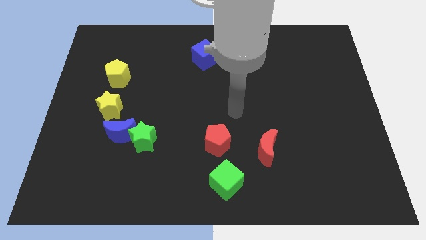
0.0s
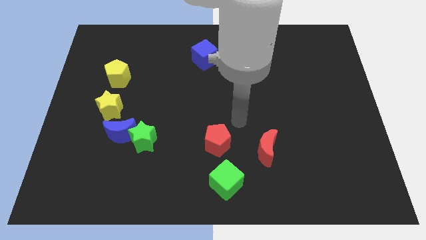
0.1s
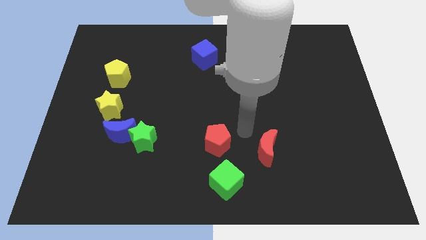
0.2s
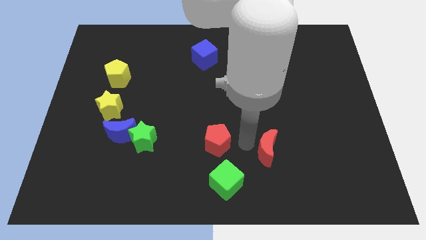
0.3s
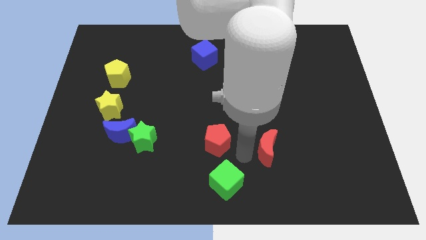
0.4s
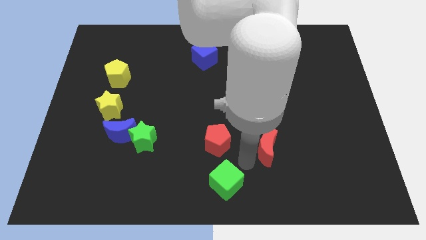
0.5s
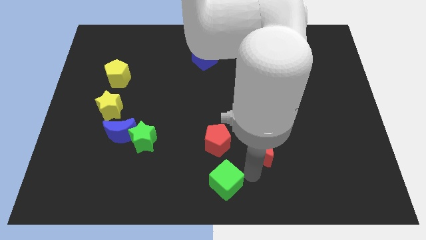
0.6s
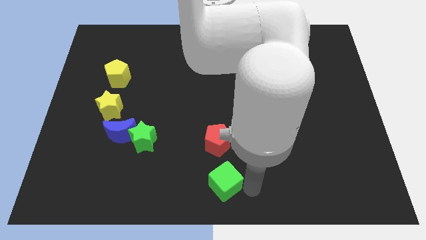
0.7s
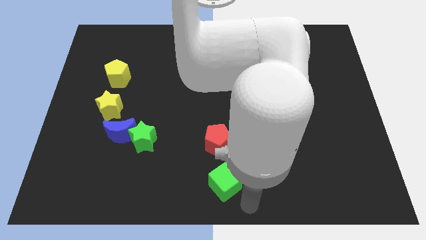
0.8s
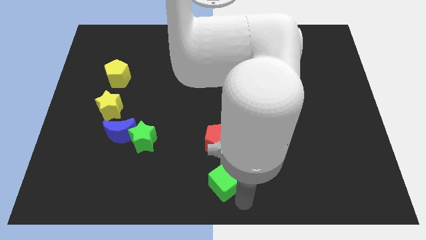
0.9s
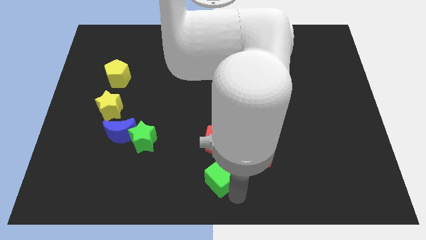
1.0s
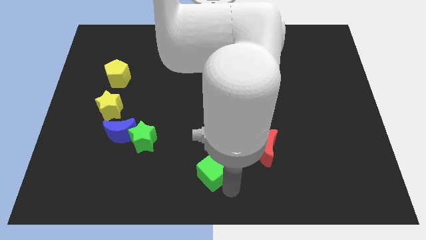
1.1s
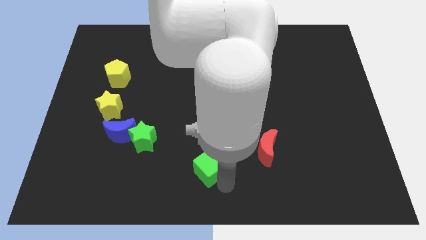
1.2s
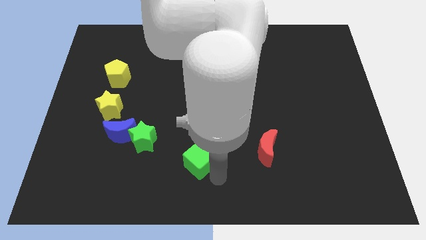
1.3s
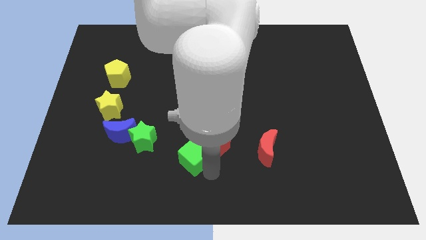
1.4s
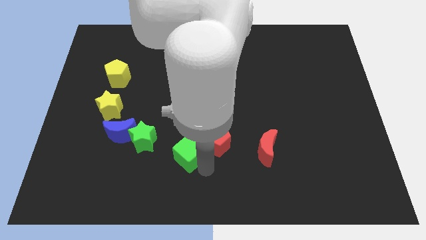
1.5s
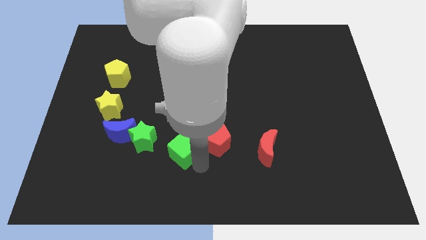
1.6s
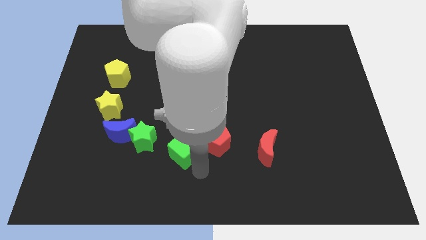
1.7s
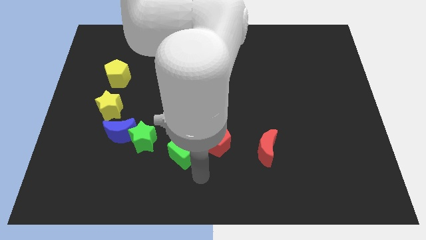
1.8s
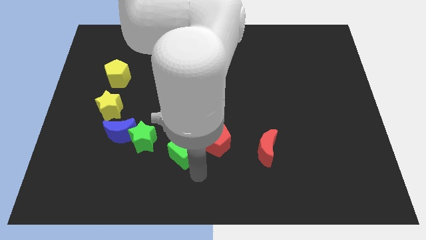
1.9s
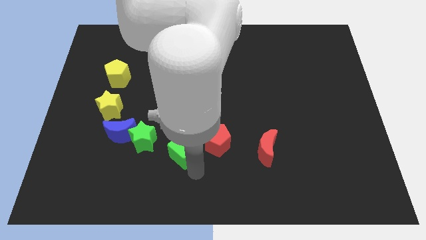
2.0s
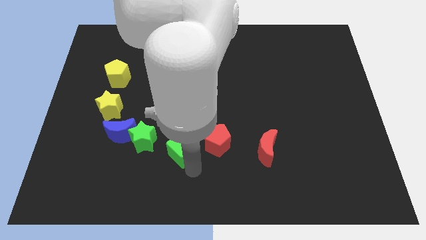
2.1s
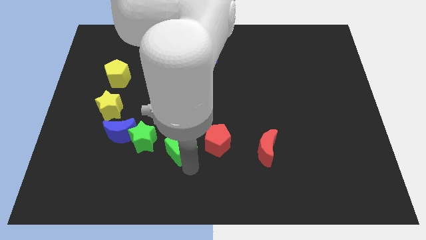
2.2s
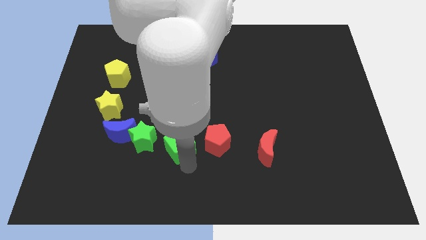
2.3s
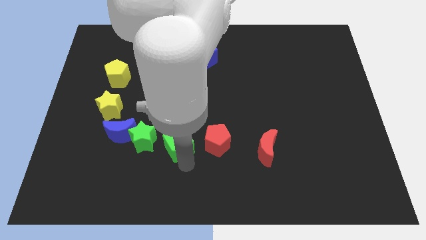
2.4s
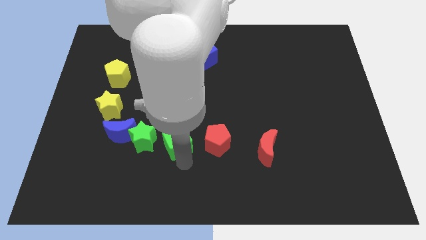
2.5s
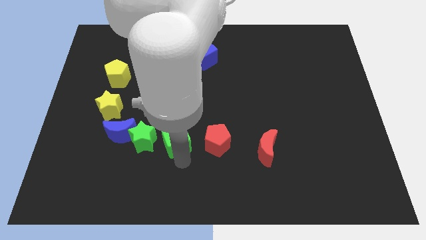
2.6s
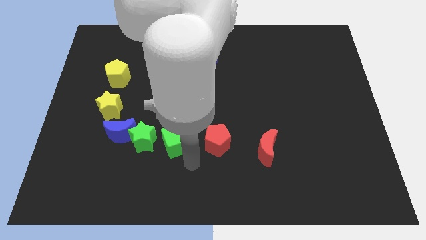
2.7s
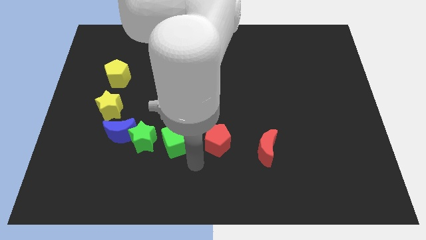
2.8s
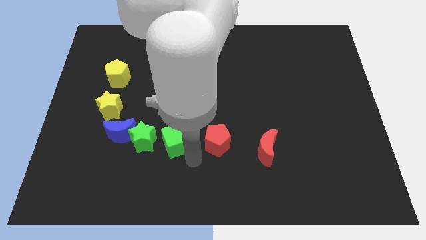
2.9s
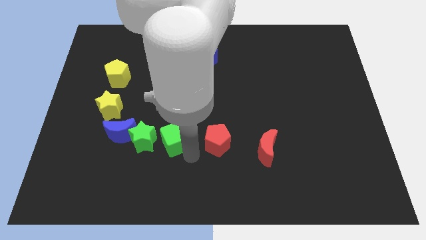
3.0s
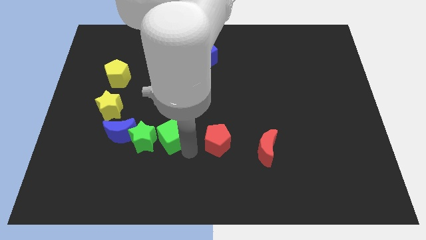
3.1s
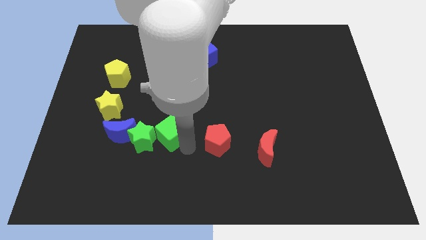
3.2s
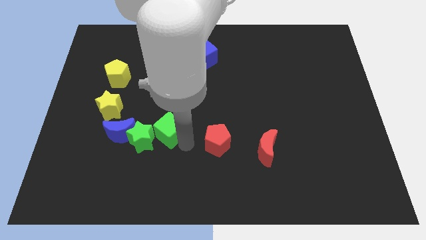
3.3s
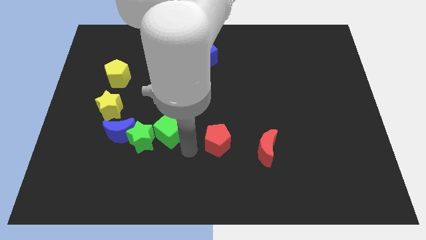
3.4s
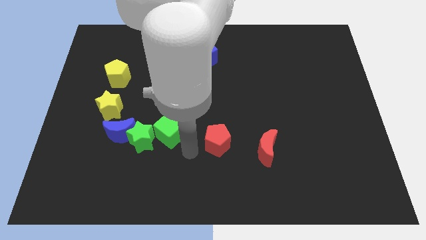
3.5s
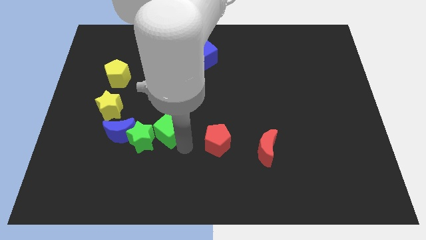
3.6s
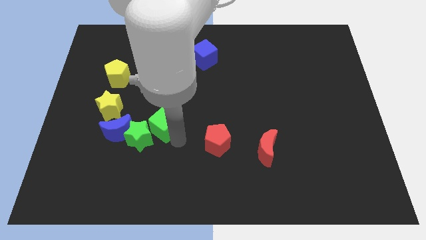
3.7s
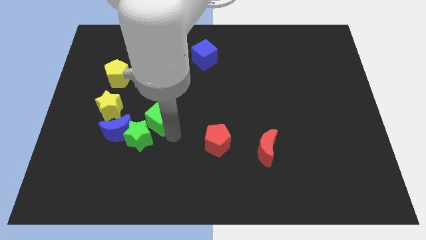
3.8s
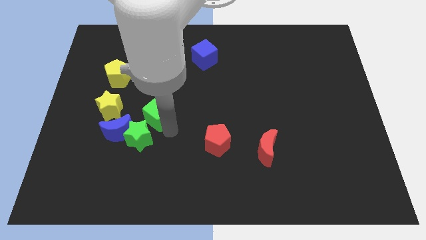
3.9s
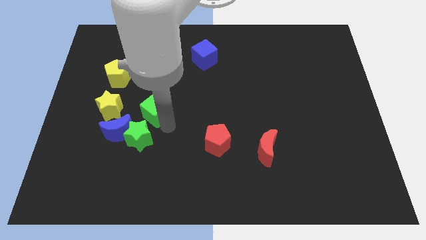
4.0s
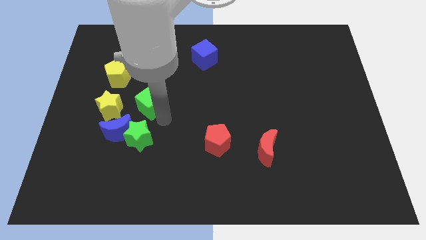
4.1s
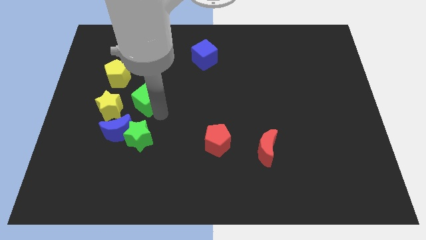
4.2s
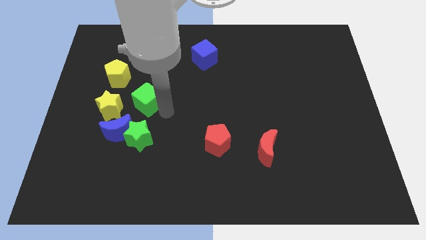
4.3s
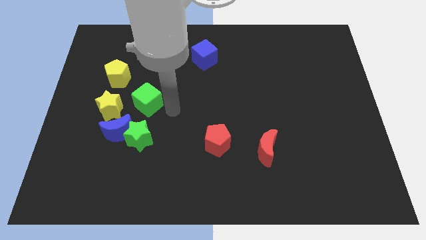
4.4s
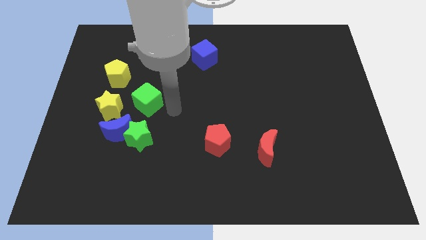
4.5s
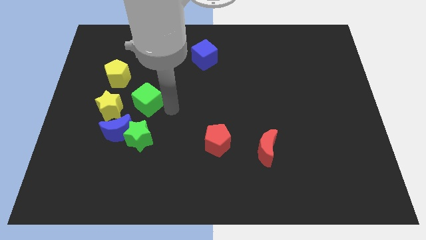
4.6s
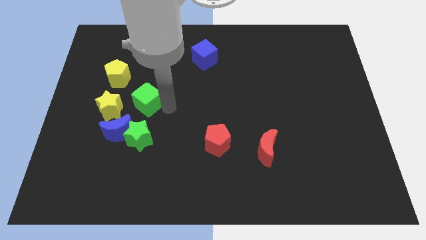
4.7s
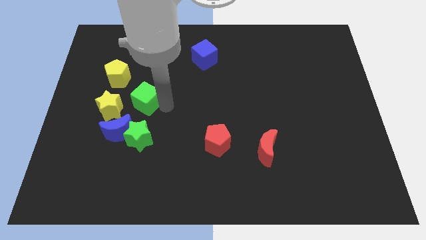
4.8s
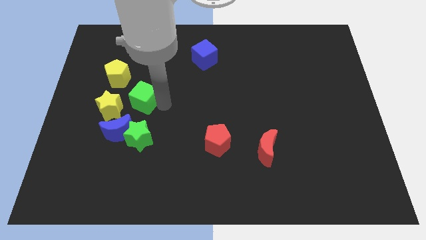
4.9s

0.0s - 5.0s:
push the green cube to the top of the blue moon

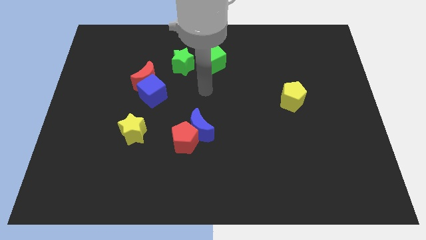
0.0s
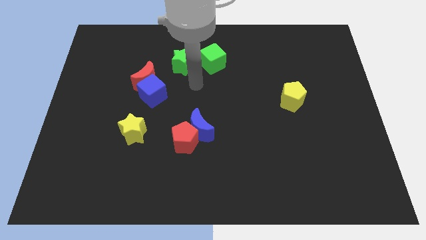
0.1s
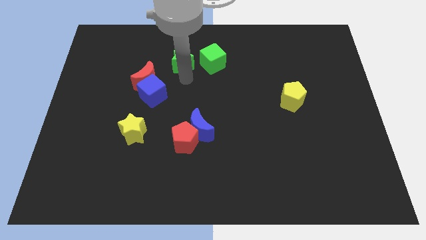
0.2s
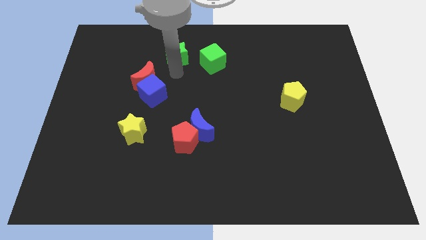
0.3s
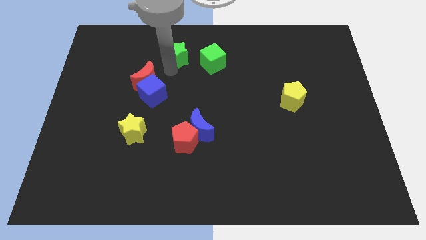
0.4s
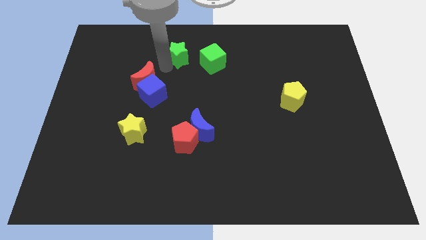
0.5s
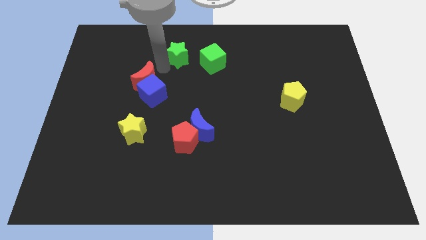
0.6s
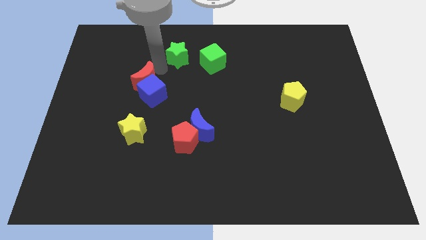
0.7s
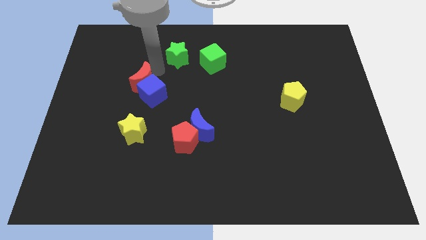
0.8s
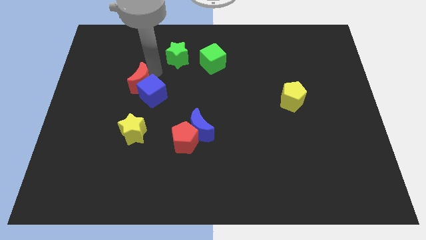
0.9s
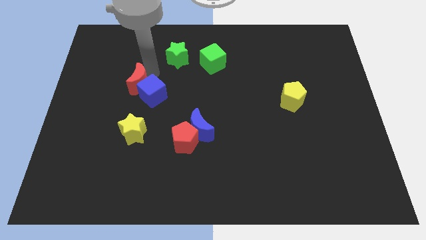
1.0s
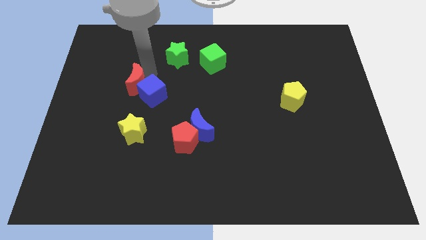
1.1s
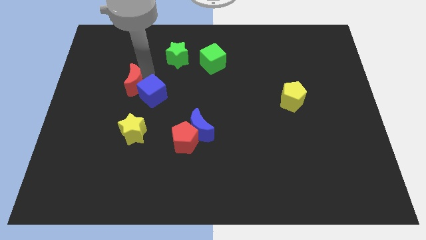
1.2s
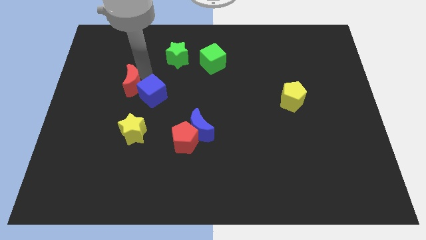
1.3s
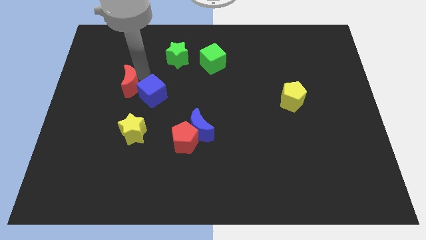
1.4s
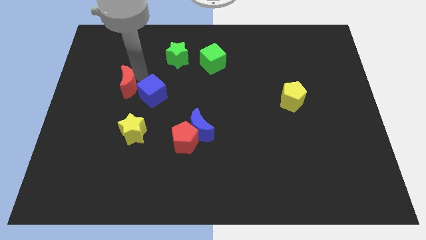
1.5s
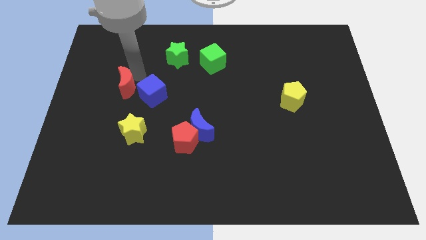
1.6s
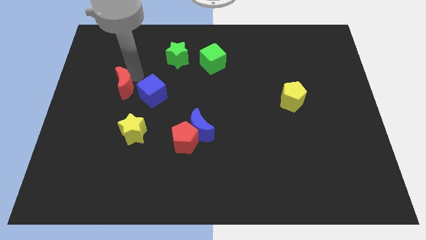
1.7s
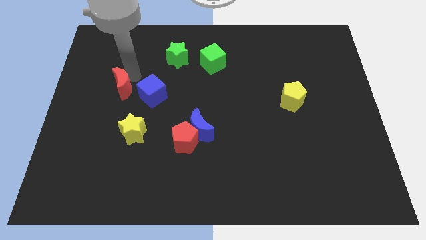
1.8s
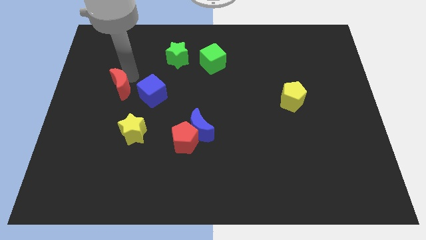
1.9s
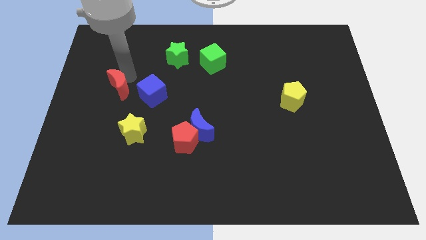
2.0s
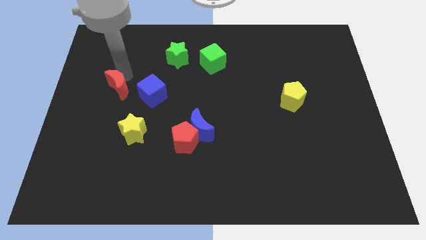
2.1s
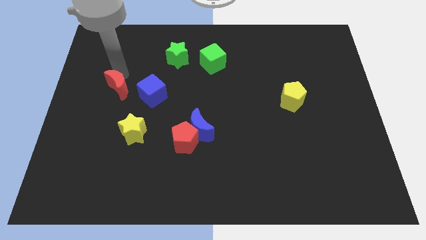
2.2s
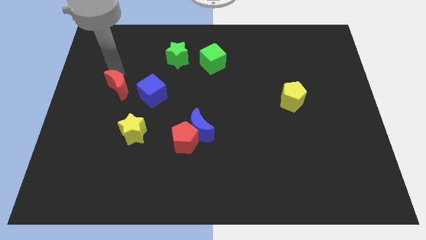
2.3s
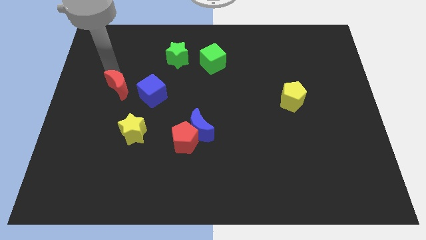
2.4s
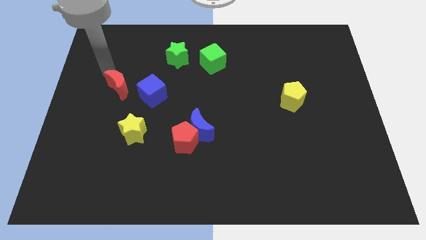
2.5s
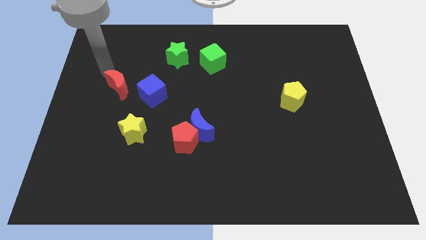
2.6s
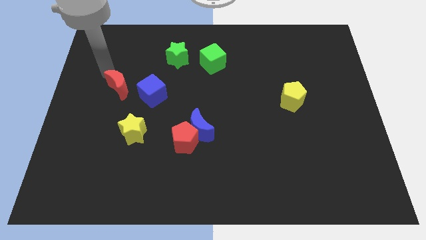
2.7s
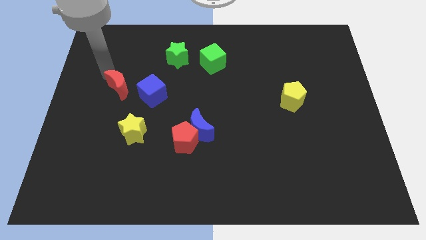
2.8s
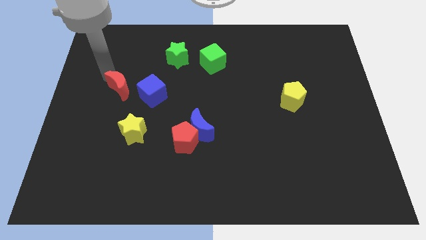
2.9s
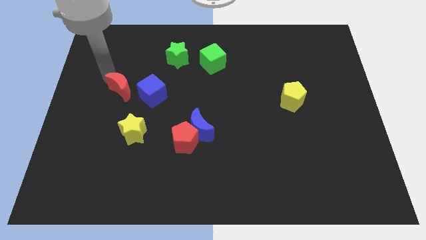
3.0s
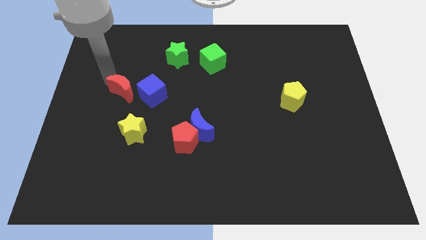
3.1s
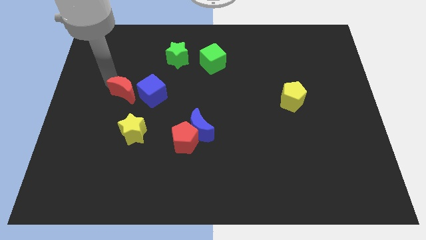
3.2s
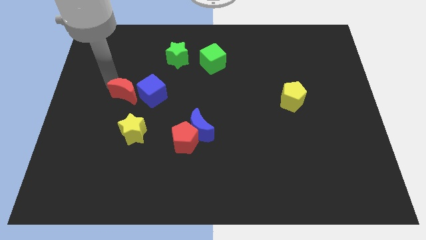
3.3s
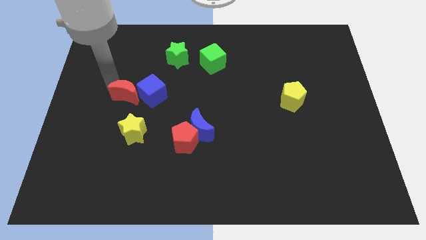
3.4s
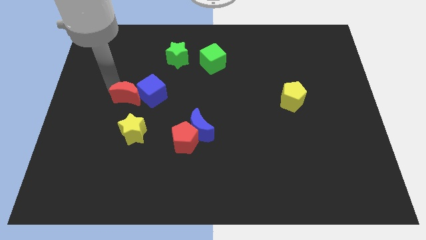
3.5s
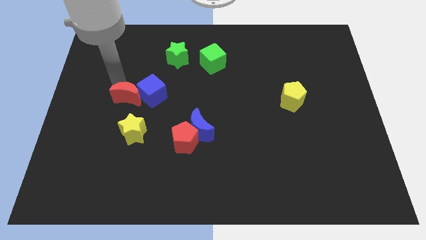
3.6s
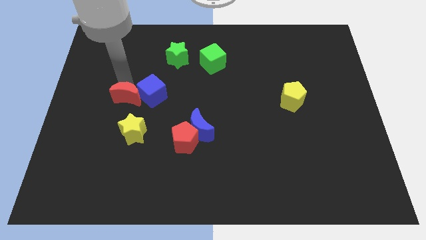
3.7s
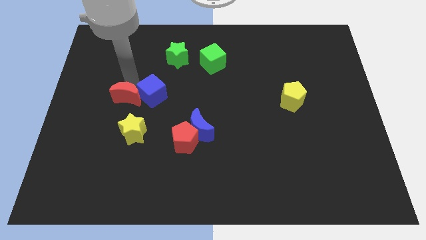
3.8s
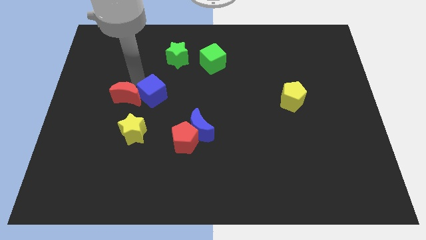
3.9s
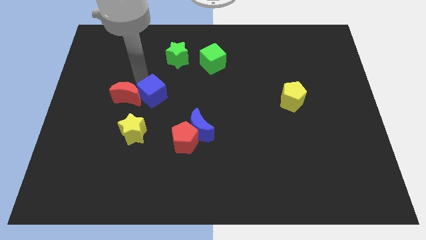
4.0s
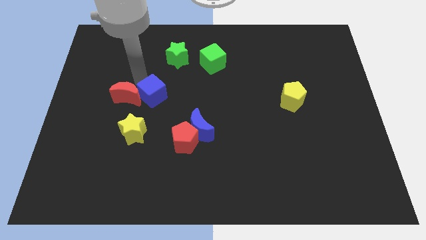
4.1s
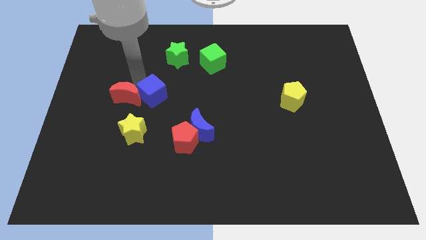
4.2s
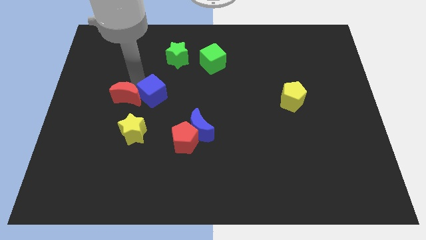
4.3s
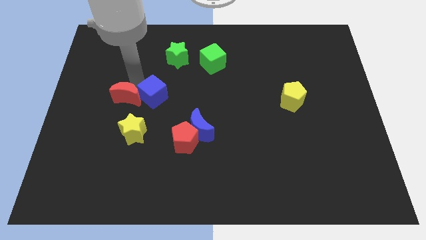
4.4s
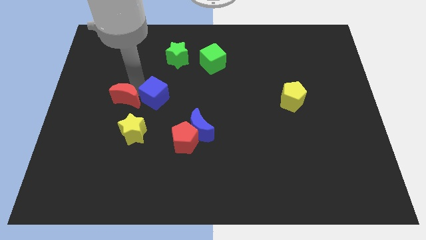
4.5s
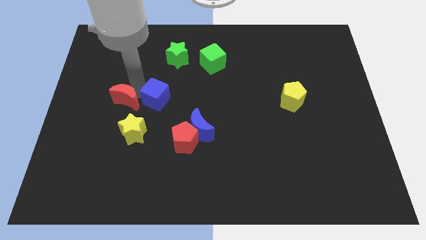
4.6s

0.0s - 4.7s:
put the red moon to the top left of the yellow star
